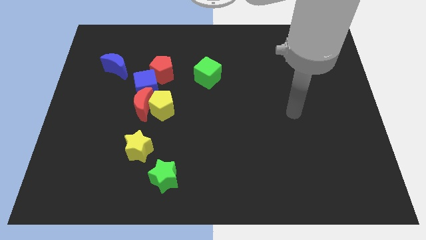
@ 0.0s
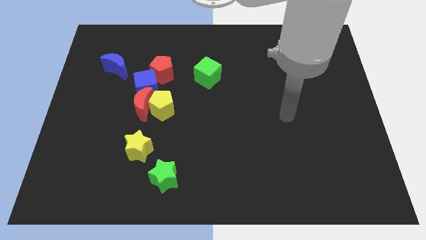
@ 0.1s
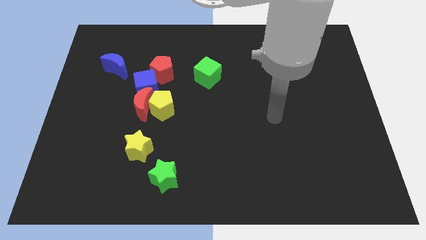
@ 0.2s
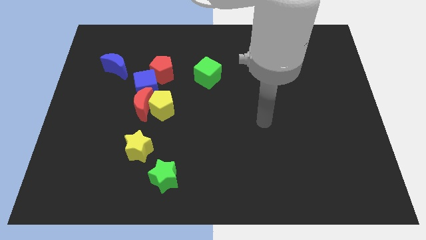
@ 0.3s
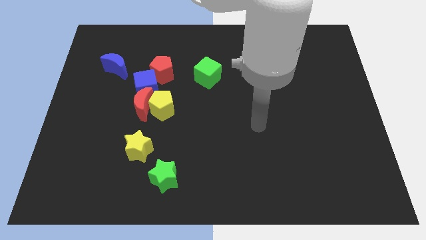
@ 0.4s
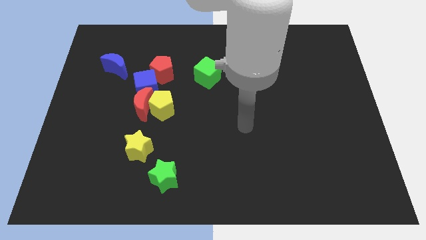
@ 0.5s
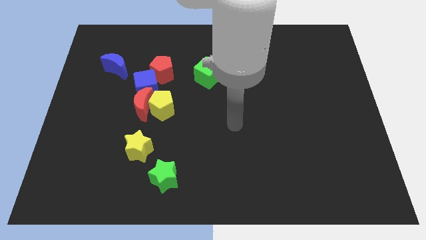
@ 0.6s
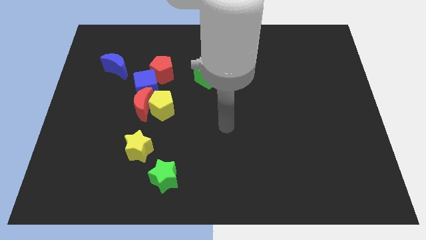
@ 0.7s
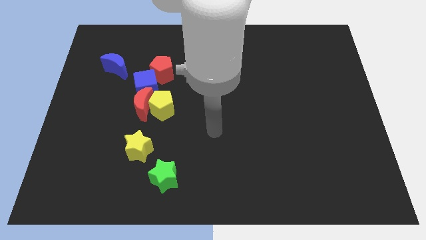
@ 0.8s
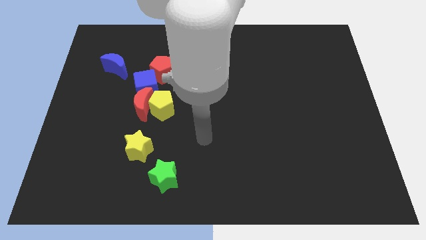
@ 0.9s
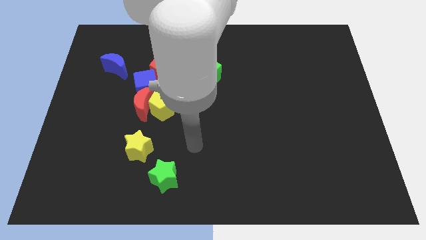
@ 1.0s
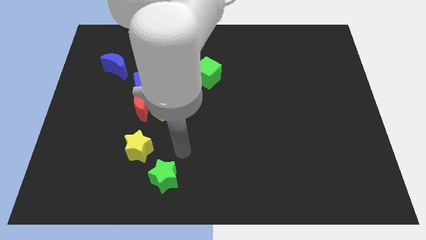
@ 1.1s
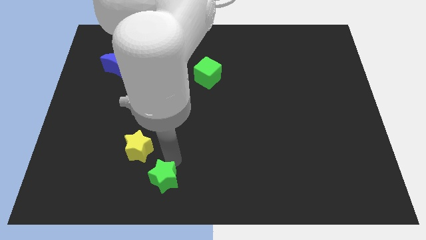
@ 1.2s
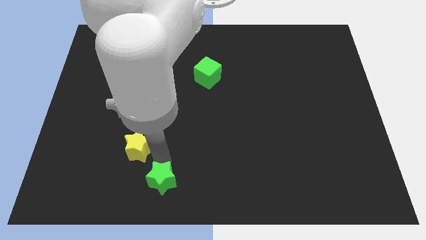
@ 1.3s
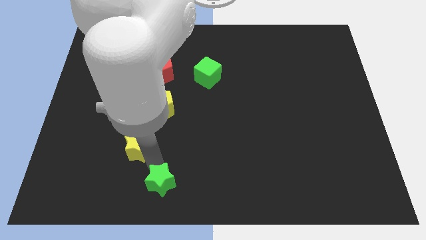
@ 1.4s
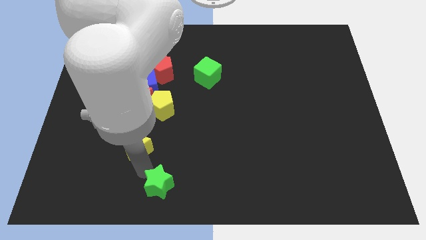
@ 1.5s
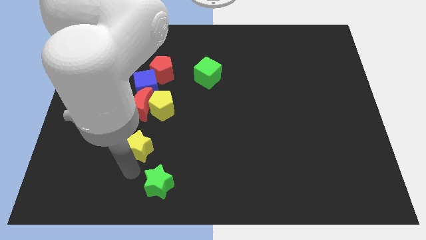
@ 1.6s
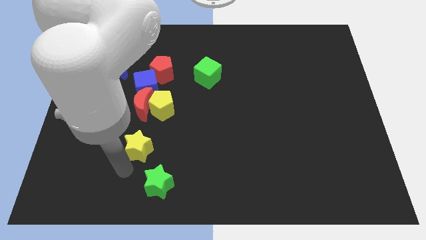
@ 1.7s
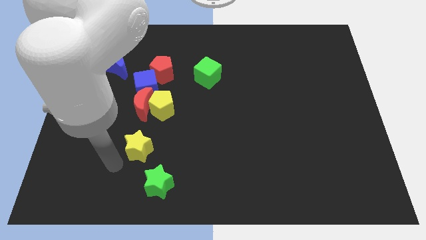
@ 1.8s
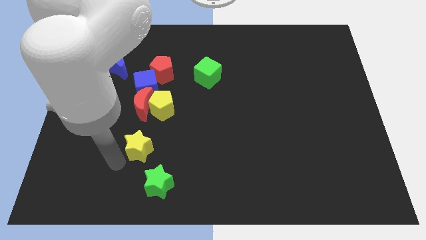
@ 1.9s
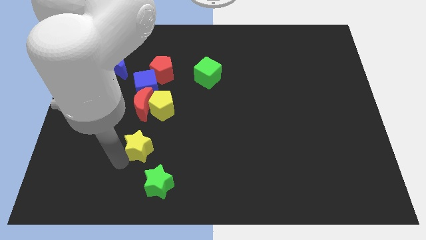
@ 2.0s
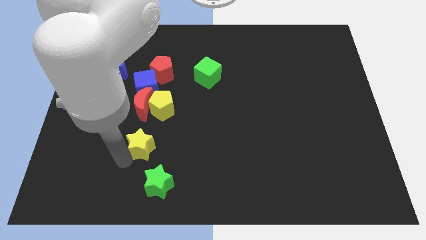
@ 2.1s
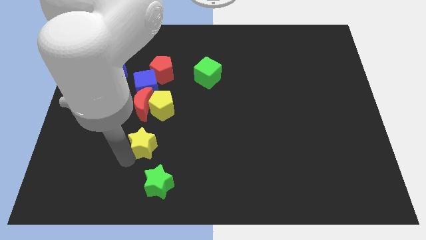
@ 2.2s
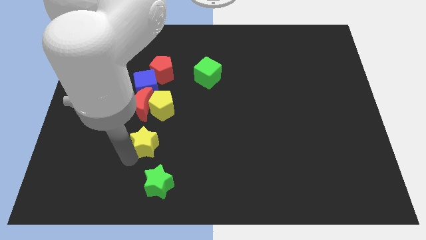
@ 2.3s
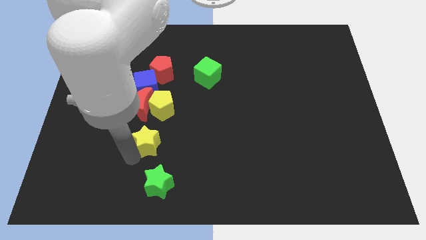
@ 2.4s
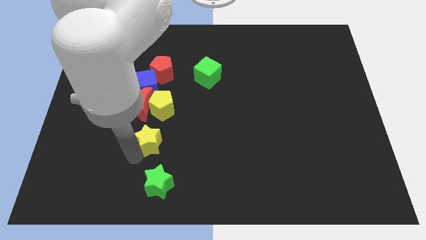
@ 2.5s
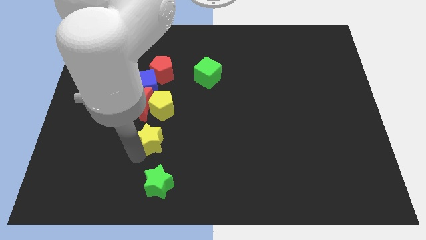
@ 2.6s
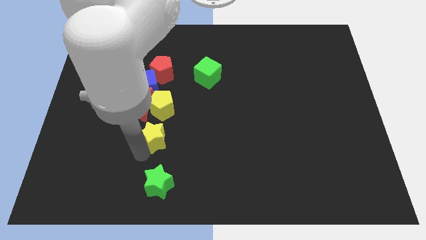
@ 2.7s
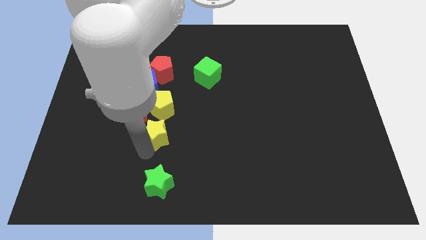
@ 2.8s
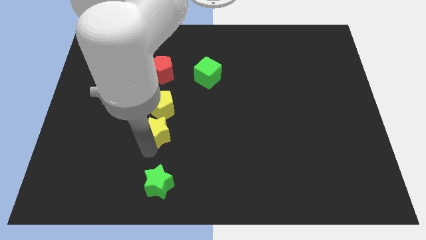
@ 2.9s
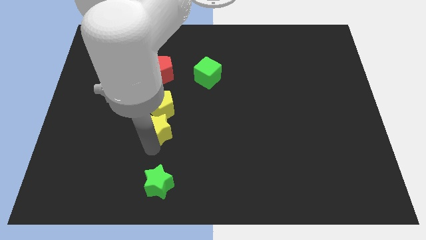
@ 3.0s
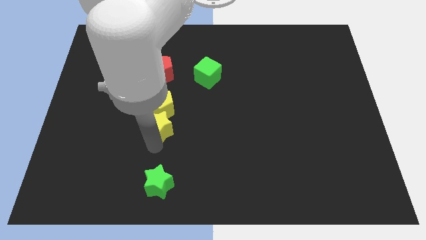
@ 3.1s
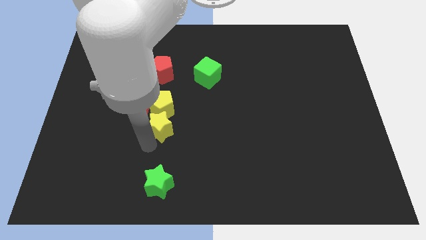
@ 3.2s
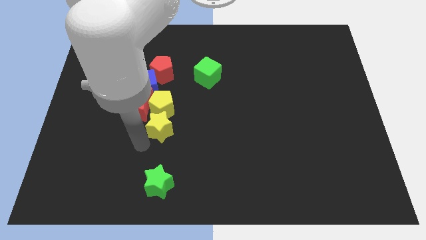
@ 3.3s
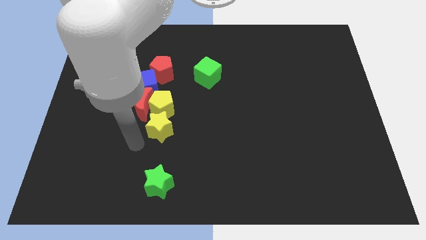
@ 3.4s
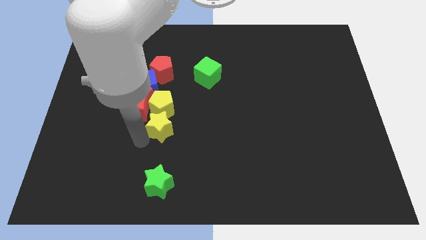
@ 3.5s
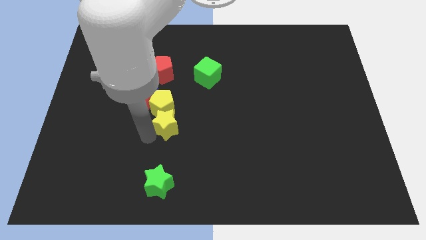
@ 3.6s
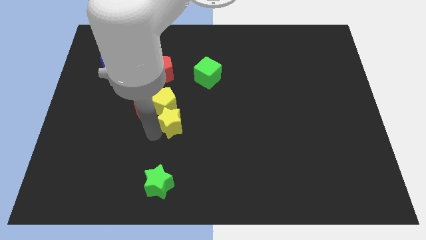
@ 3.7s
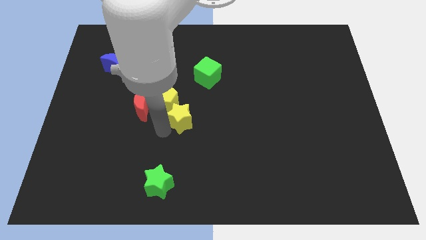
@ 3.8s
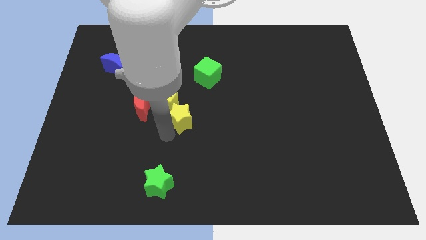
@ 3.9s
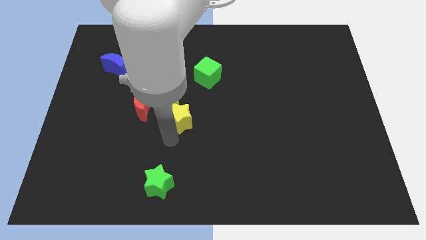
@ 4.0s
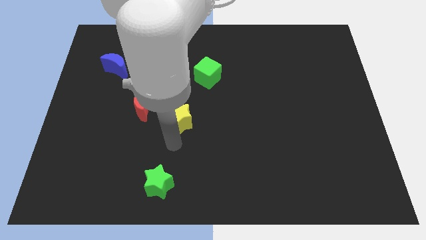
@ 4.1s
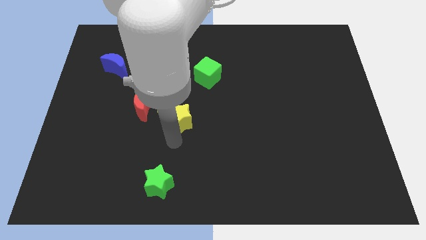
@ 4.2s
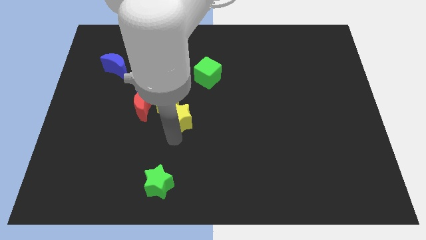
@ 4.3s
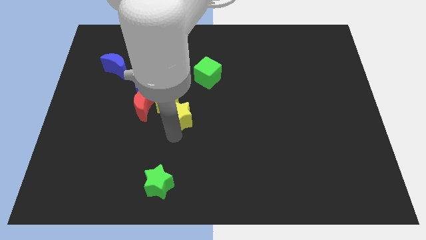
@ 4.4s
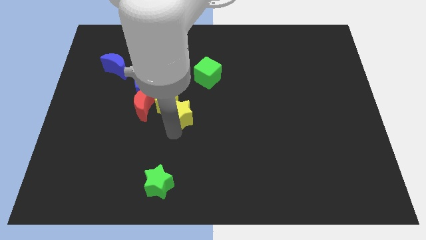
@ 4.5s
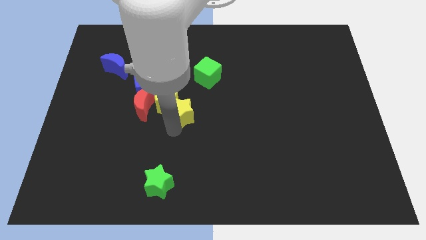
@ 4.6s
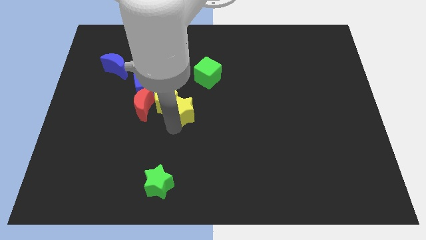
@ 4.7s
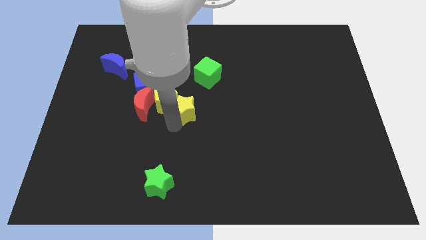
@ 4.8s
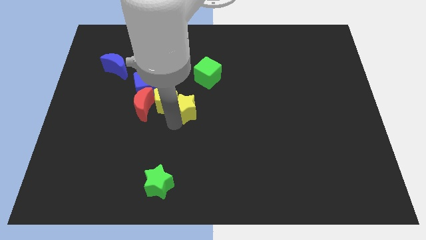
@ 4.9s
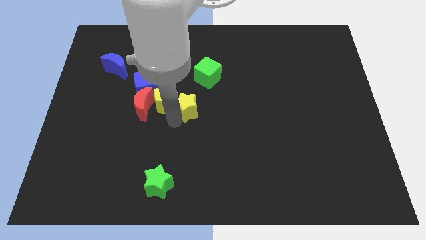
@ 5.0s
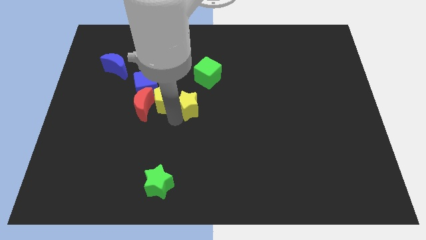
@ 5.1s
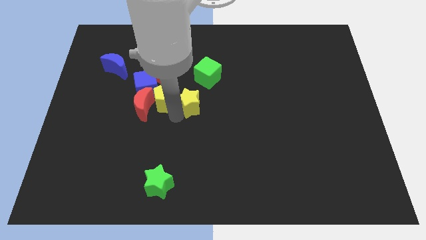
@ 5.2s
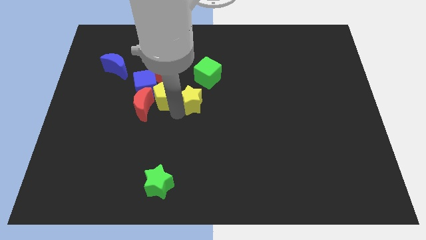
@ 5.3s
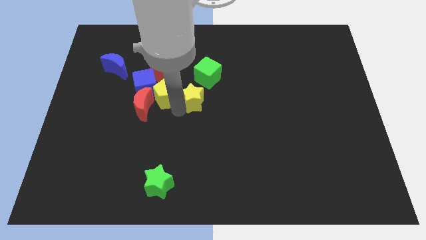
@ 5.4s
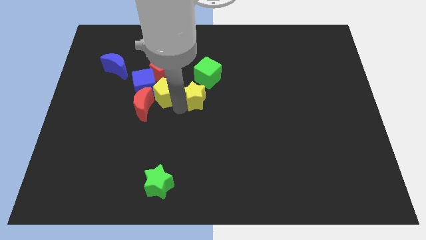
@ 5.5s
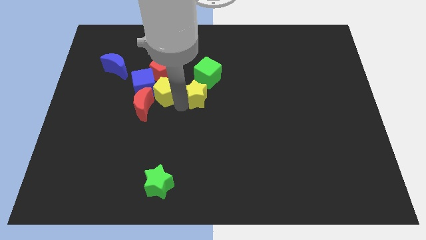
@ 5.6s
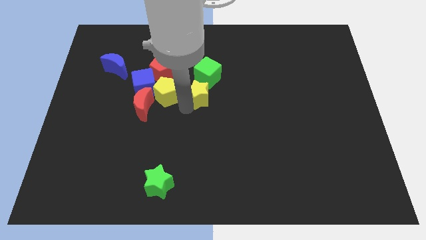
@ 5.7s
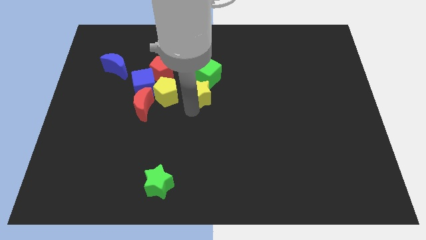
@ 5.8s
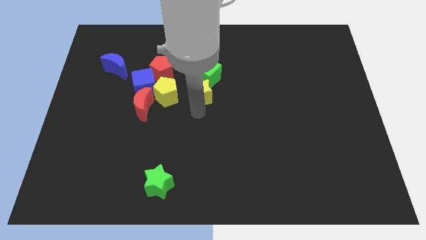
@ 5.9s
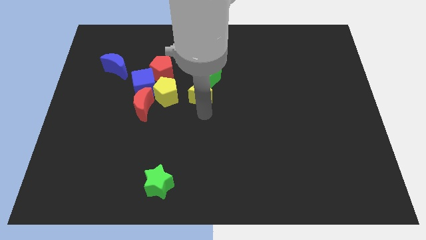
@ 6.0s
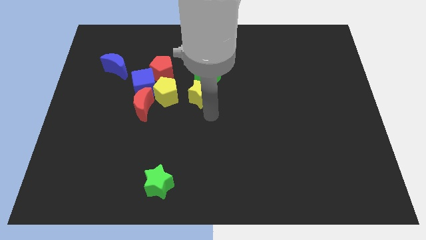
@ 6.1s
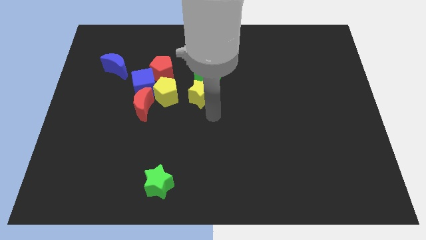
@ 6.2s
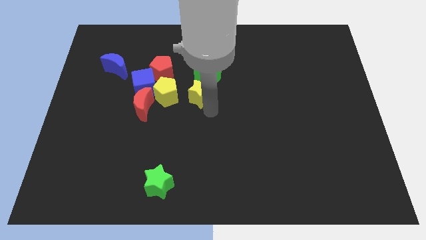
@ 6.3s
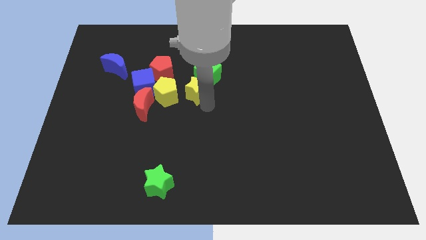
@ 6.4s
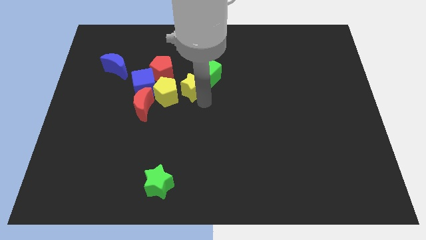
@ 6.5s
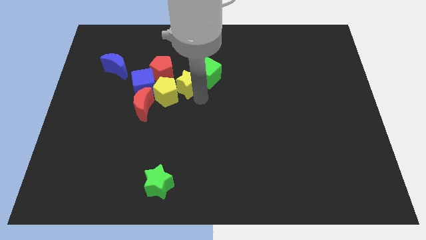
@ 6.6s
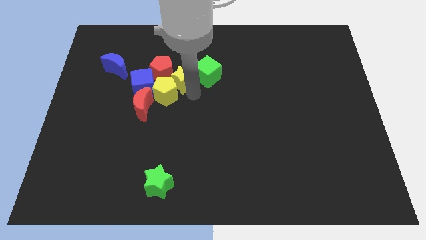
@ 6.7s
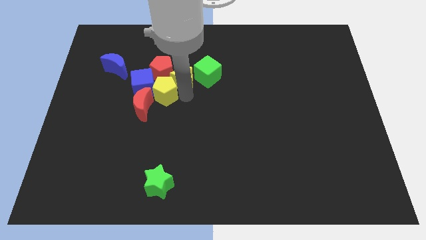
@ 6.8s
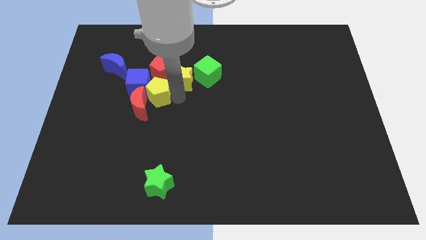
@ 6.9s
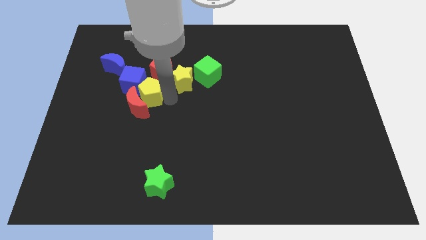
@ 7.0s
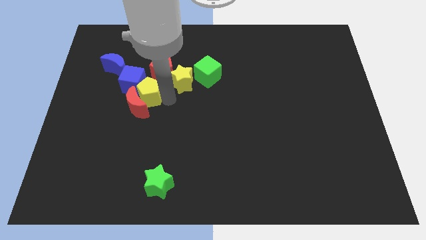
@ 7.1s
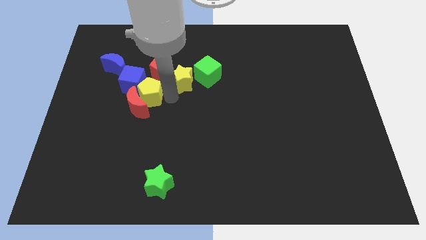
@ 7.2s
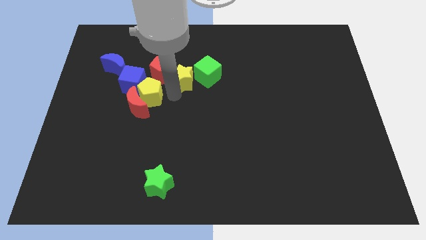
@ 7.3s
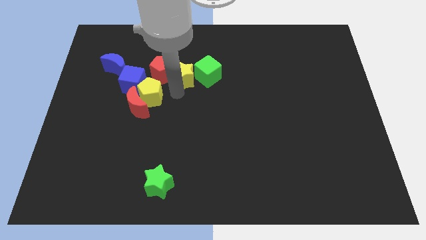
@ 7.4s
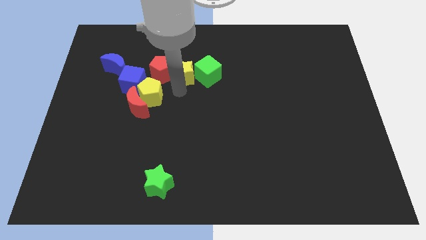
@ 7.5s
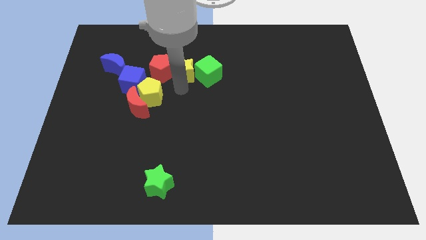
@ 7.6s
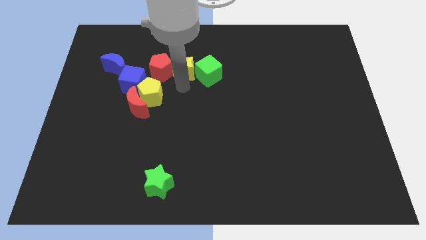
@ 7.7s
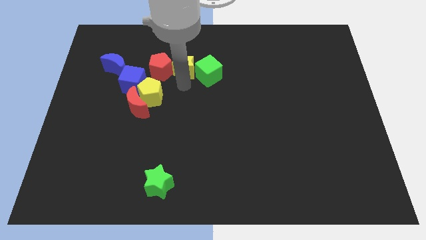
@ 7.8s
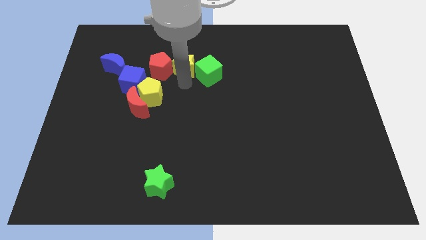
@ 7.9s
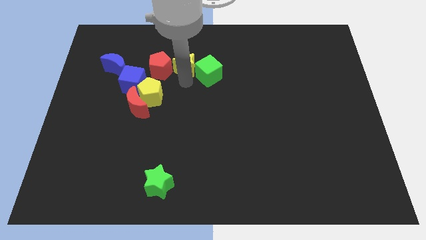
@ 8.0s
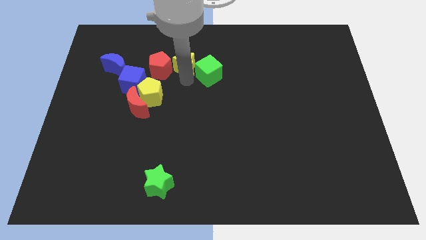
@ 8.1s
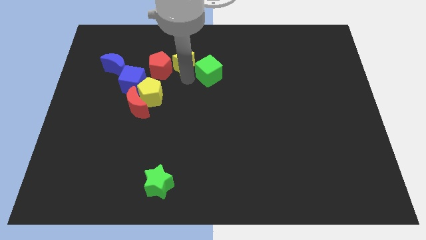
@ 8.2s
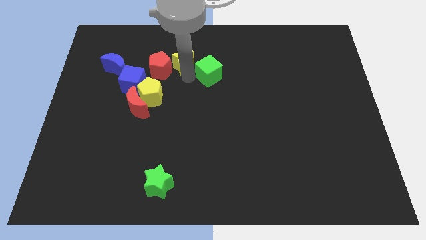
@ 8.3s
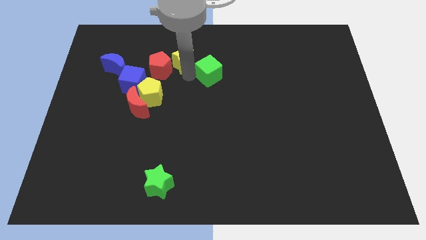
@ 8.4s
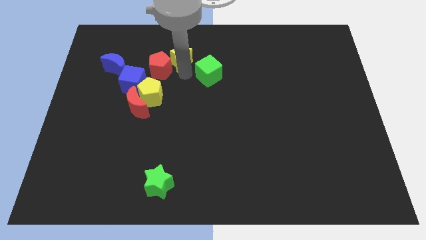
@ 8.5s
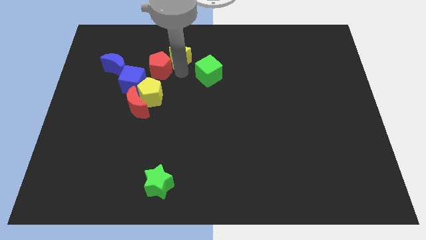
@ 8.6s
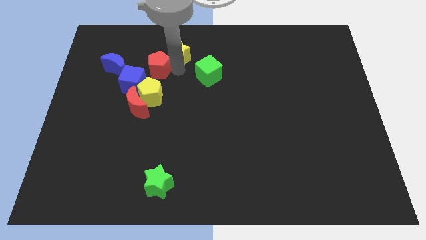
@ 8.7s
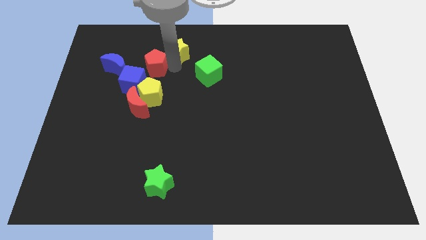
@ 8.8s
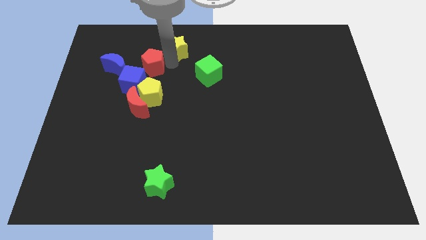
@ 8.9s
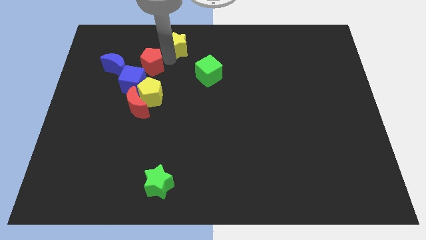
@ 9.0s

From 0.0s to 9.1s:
slide the yellow star to the towards your base
